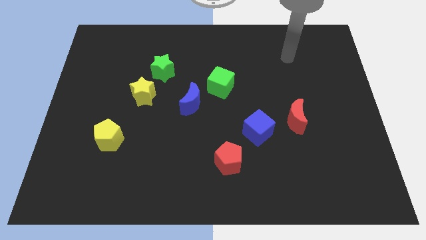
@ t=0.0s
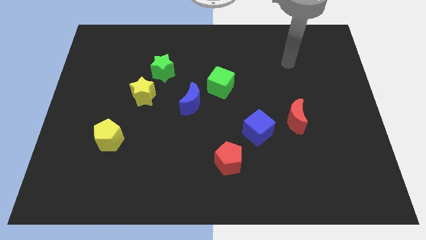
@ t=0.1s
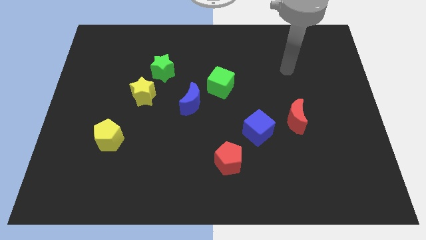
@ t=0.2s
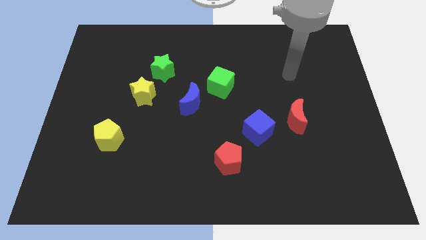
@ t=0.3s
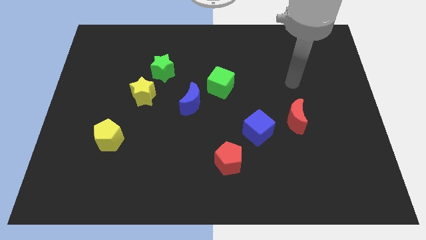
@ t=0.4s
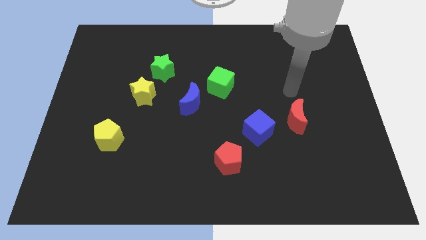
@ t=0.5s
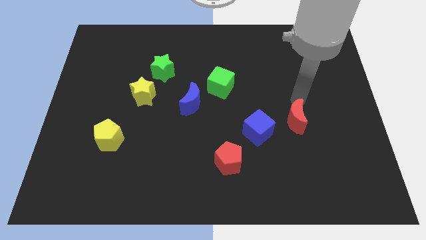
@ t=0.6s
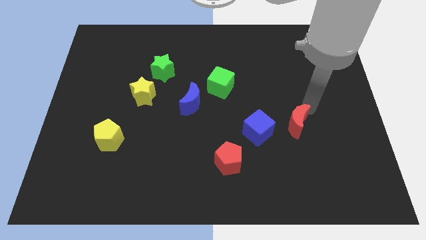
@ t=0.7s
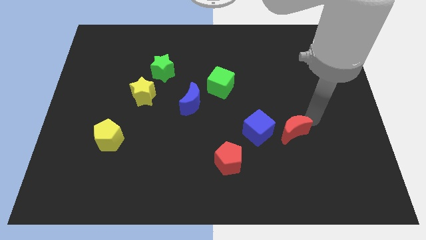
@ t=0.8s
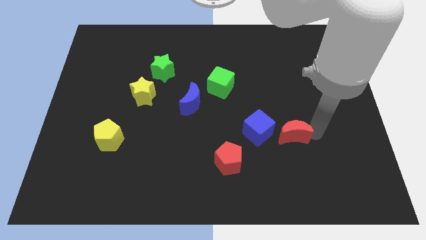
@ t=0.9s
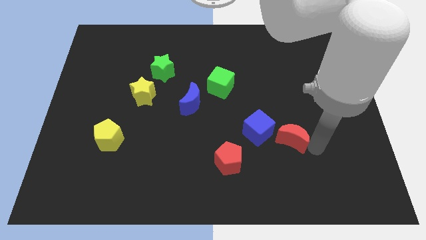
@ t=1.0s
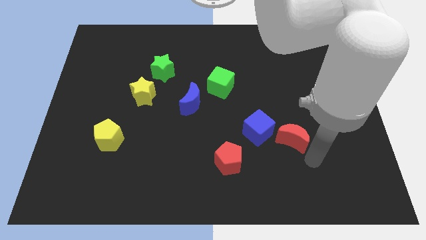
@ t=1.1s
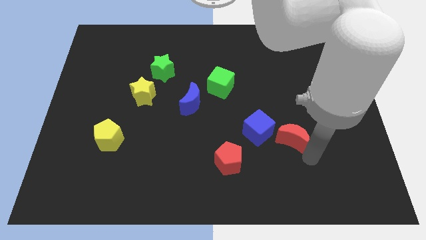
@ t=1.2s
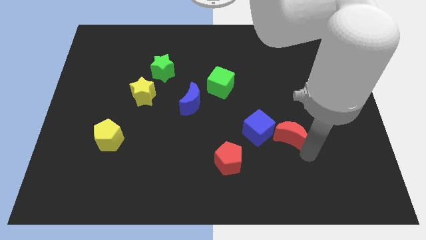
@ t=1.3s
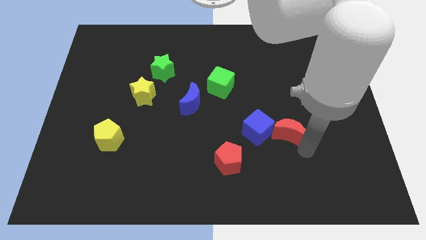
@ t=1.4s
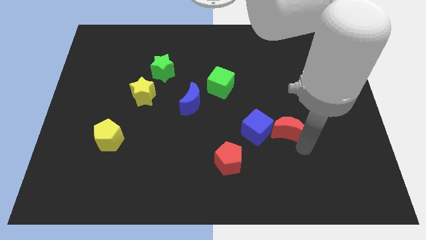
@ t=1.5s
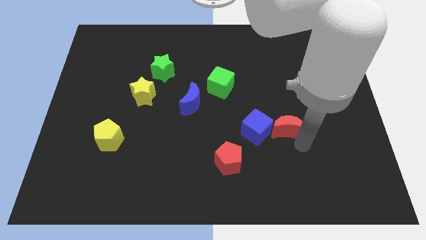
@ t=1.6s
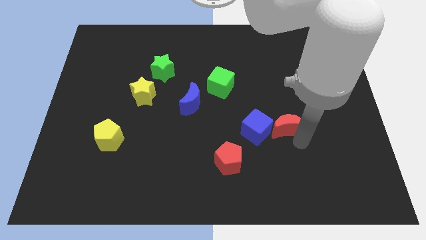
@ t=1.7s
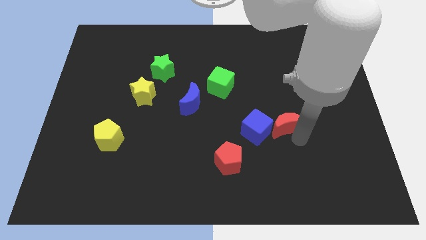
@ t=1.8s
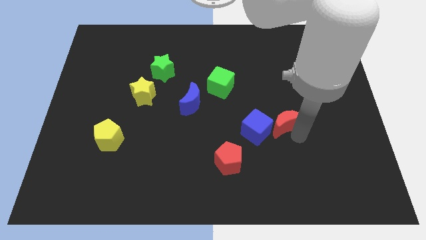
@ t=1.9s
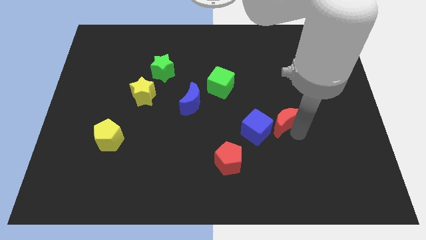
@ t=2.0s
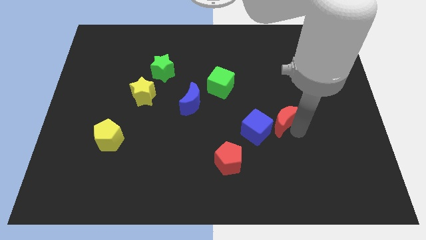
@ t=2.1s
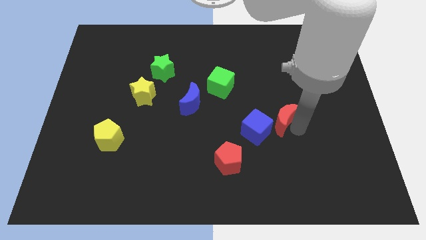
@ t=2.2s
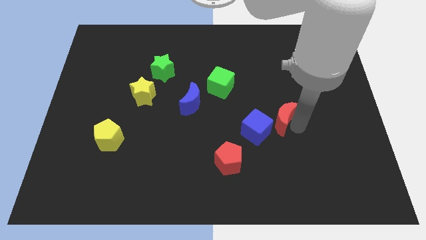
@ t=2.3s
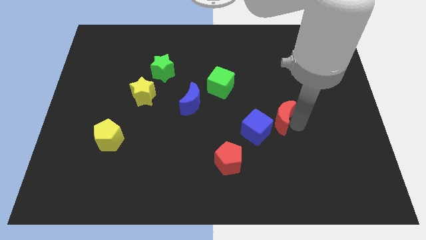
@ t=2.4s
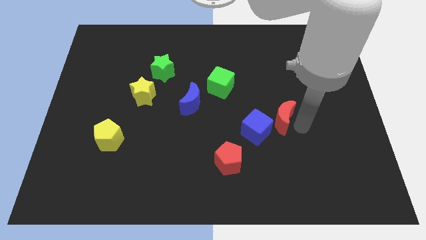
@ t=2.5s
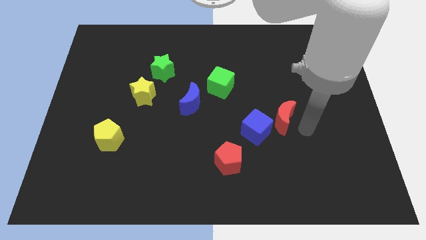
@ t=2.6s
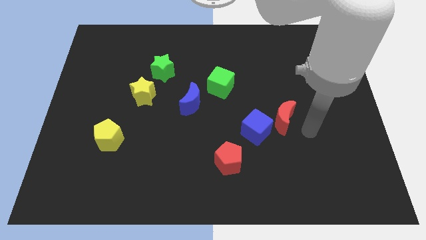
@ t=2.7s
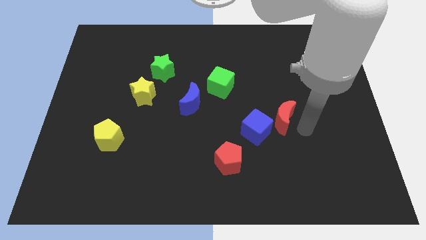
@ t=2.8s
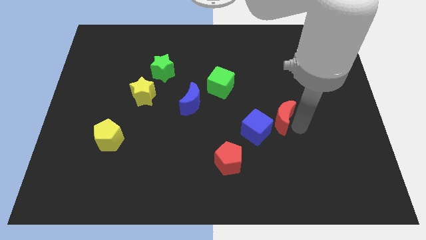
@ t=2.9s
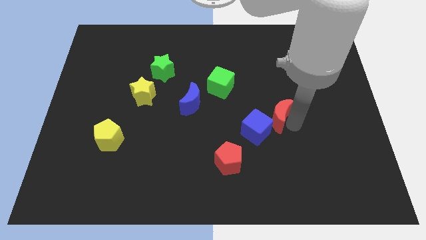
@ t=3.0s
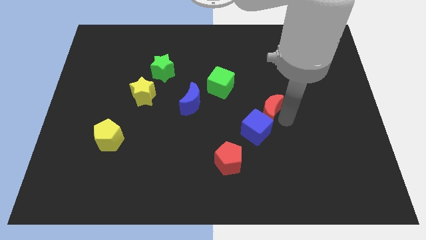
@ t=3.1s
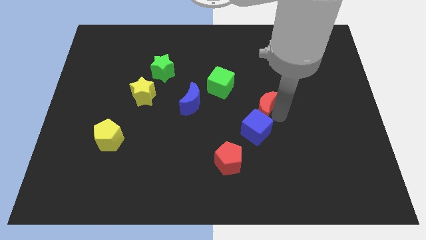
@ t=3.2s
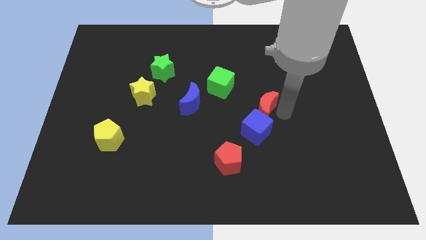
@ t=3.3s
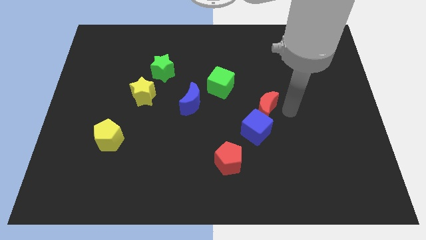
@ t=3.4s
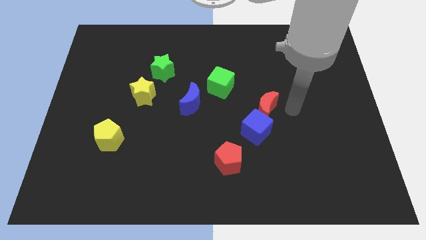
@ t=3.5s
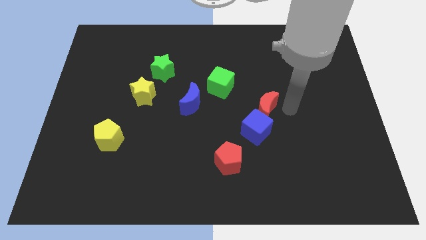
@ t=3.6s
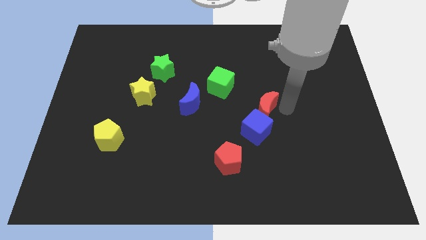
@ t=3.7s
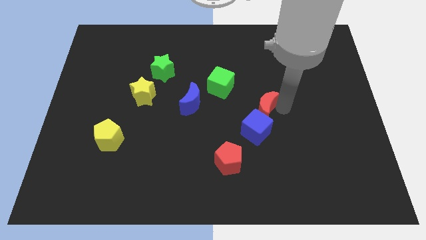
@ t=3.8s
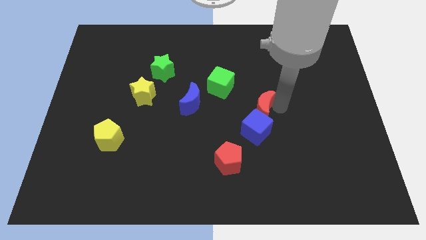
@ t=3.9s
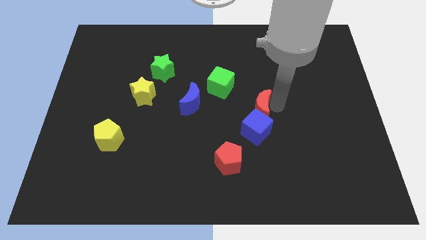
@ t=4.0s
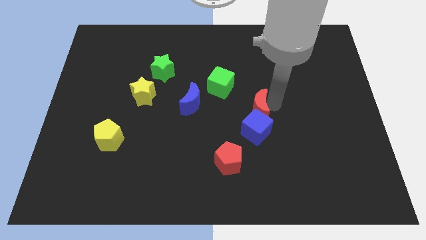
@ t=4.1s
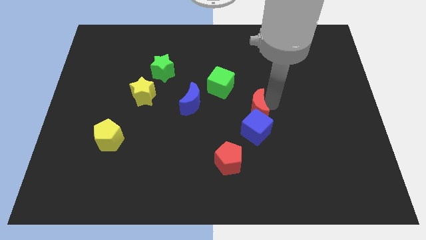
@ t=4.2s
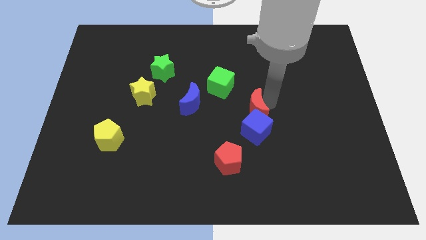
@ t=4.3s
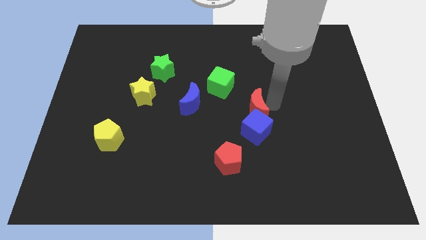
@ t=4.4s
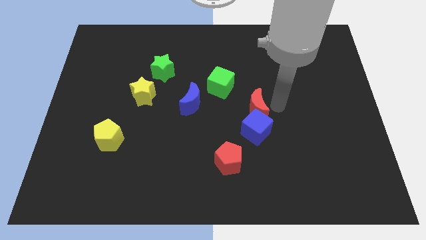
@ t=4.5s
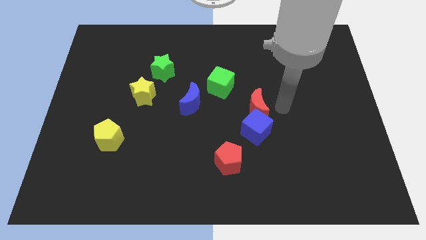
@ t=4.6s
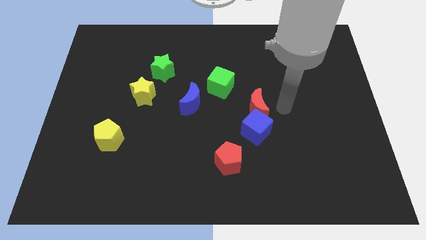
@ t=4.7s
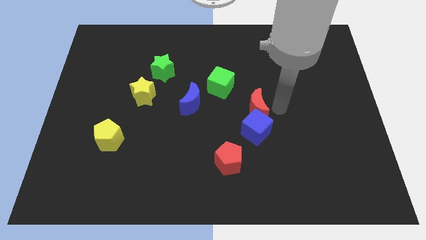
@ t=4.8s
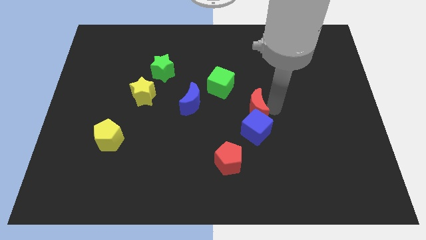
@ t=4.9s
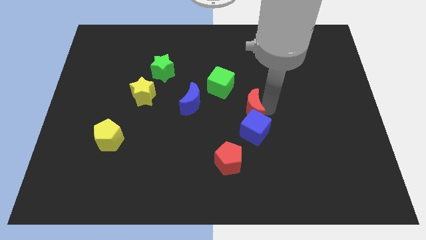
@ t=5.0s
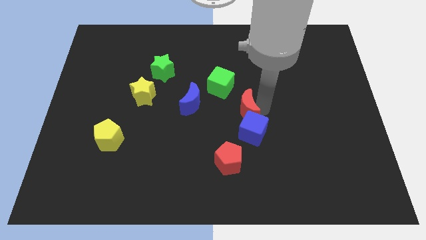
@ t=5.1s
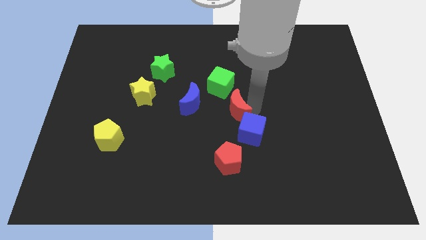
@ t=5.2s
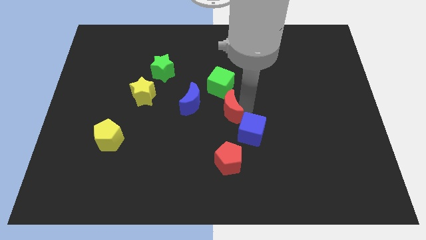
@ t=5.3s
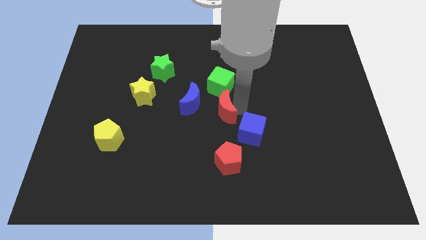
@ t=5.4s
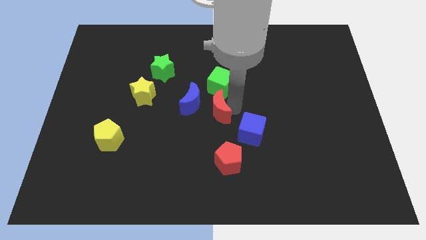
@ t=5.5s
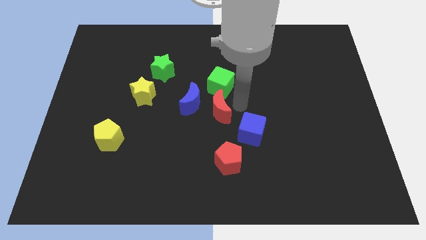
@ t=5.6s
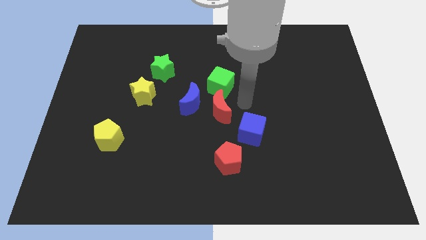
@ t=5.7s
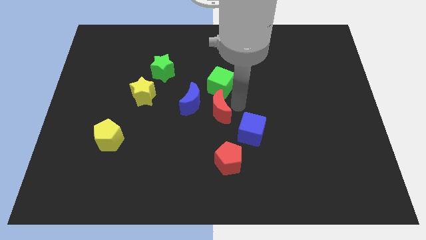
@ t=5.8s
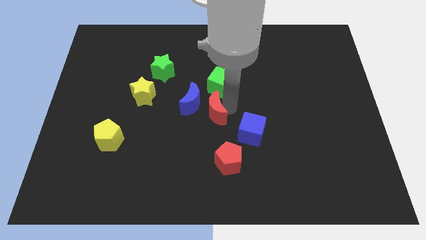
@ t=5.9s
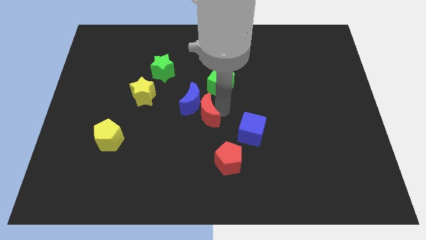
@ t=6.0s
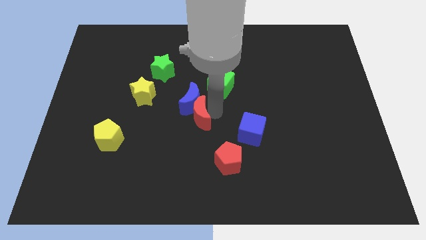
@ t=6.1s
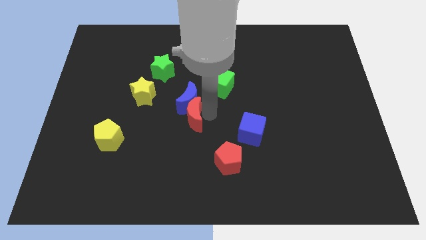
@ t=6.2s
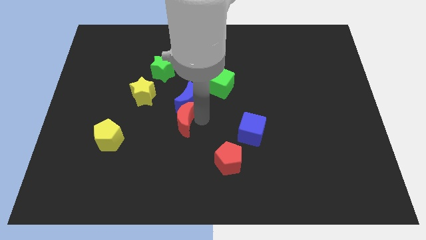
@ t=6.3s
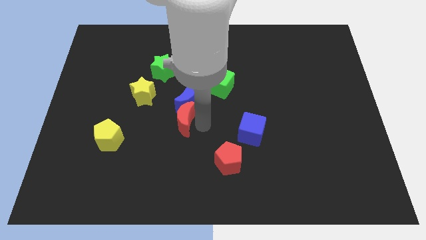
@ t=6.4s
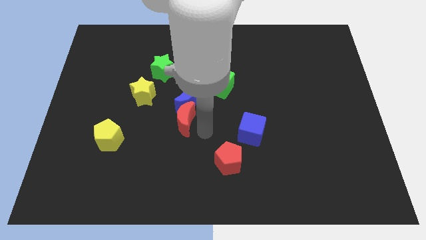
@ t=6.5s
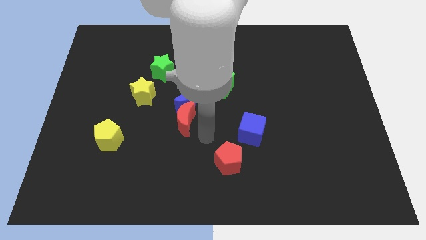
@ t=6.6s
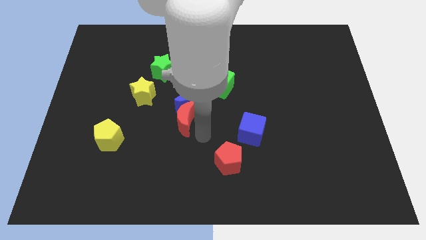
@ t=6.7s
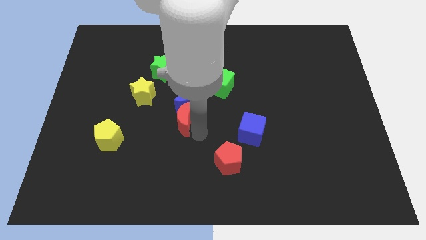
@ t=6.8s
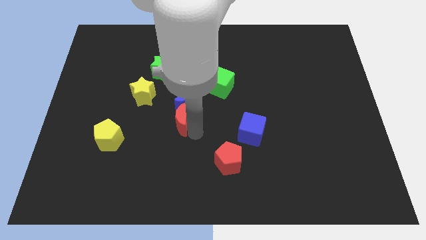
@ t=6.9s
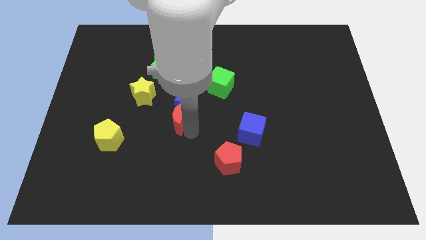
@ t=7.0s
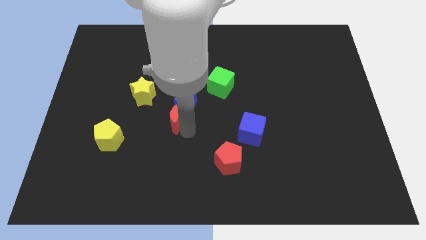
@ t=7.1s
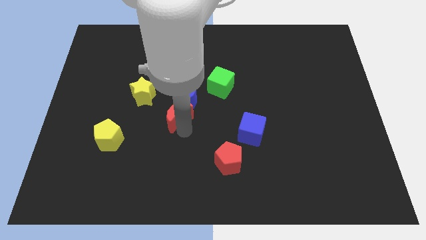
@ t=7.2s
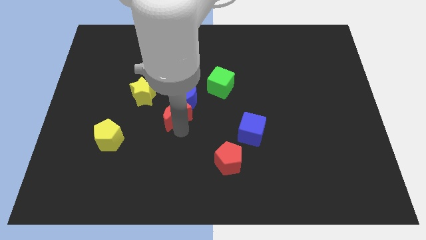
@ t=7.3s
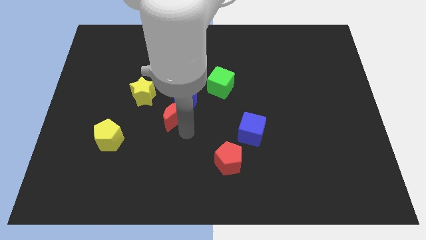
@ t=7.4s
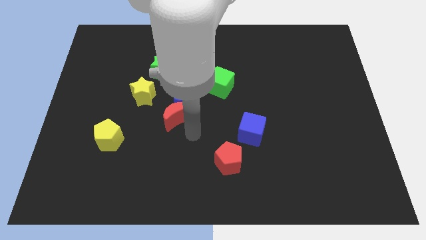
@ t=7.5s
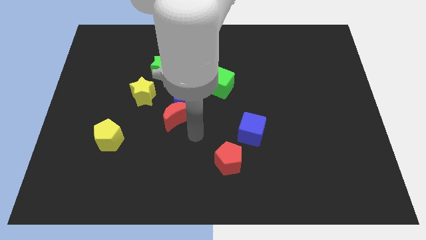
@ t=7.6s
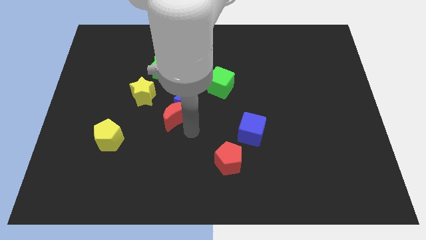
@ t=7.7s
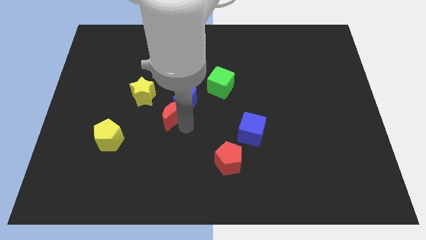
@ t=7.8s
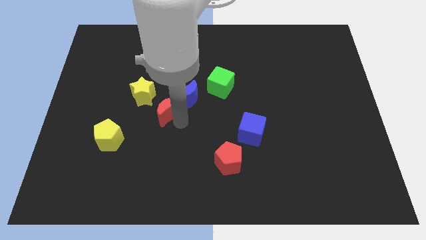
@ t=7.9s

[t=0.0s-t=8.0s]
push the red moon below the green star
